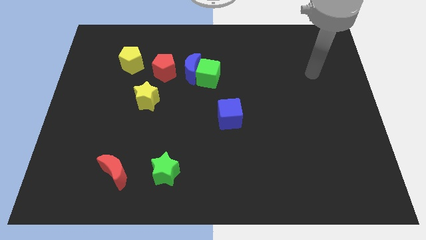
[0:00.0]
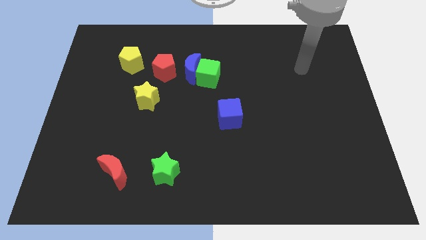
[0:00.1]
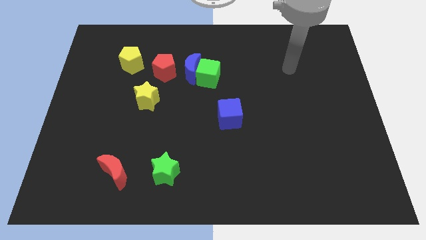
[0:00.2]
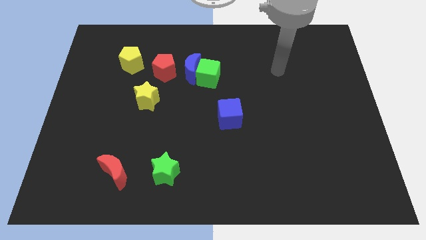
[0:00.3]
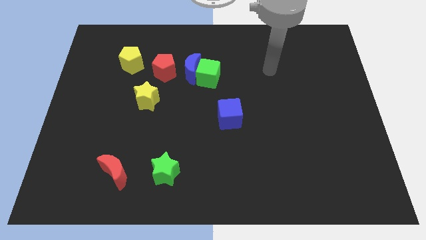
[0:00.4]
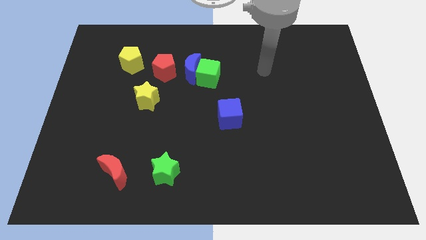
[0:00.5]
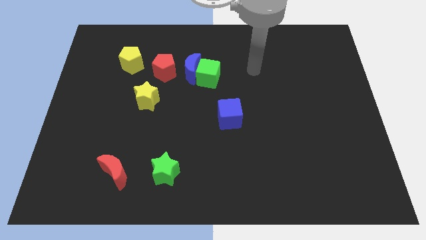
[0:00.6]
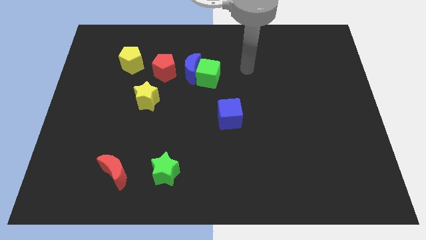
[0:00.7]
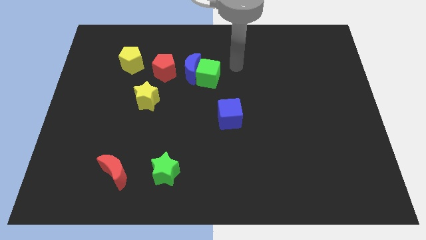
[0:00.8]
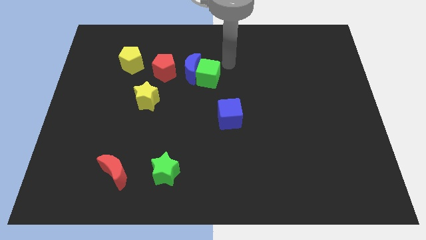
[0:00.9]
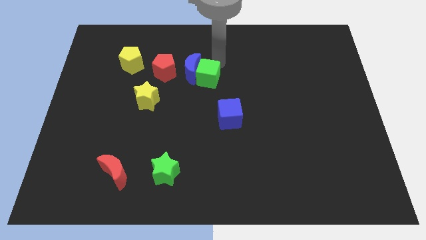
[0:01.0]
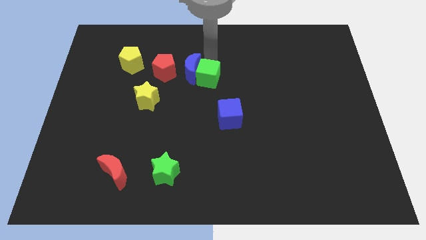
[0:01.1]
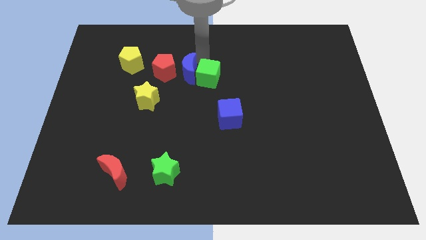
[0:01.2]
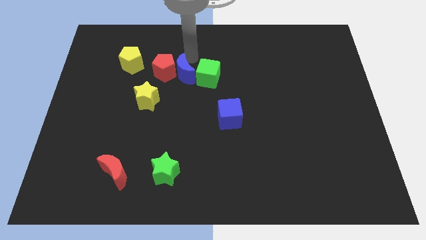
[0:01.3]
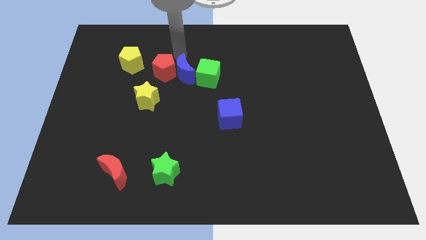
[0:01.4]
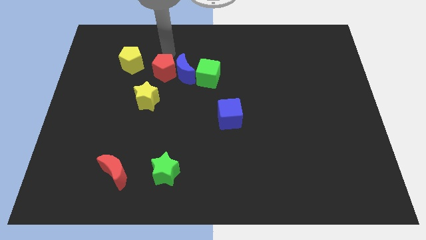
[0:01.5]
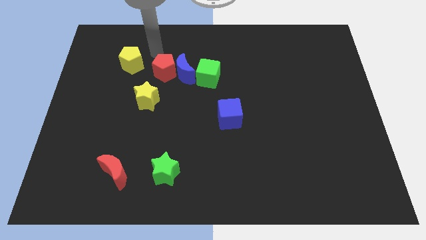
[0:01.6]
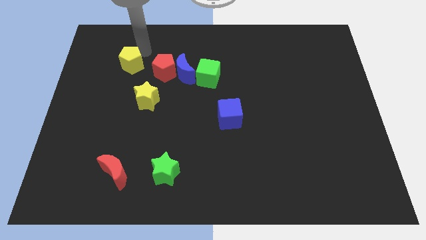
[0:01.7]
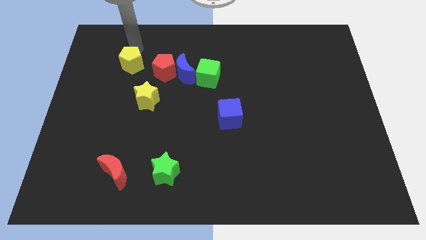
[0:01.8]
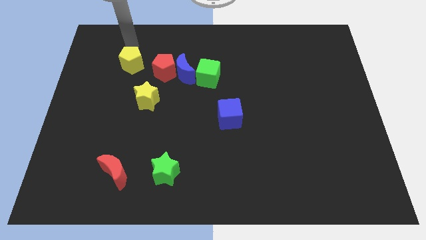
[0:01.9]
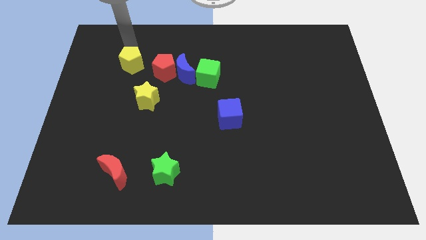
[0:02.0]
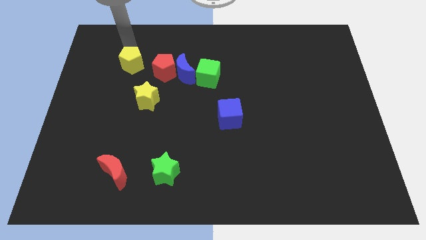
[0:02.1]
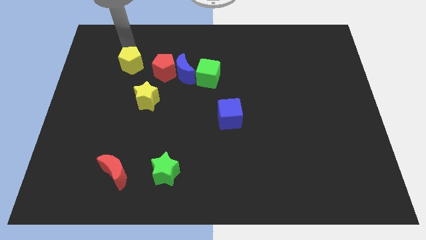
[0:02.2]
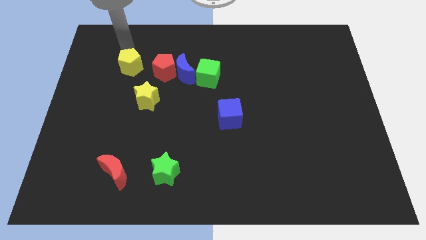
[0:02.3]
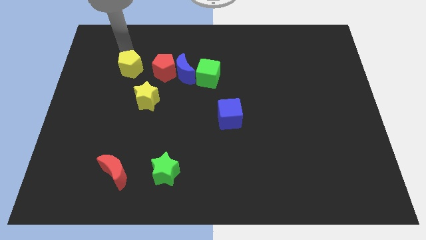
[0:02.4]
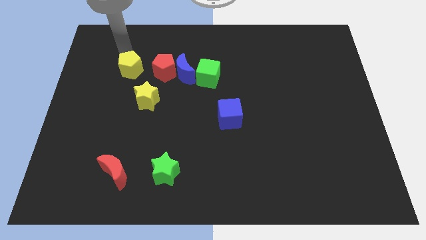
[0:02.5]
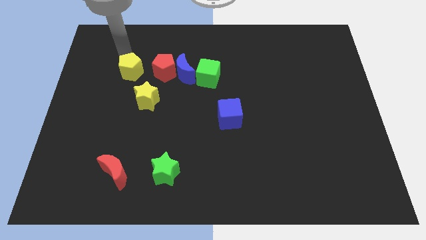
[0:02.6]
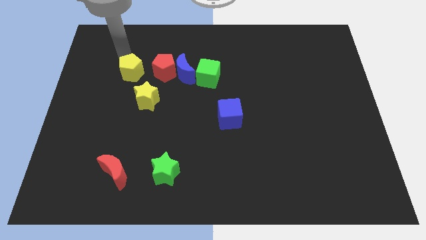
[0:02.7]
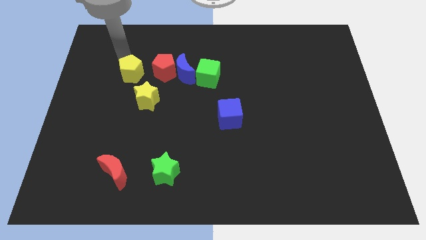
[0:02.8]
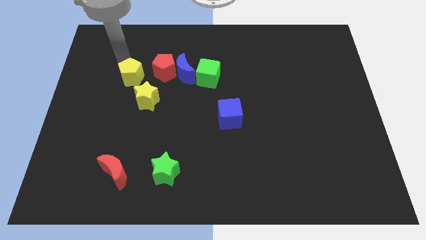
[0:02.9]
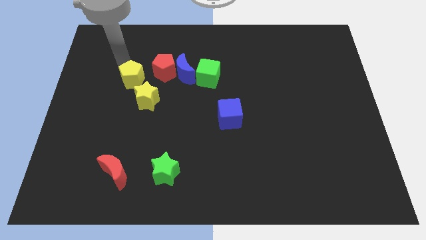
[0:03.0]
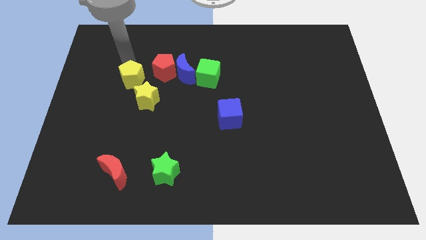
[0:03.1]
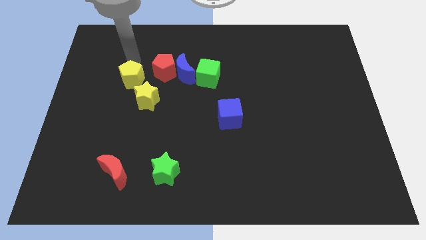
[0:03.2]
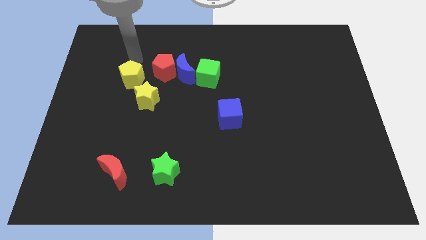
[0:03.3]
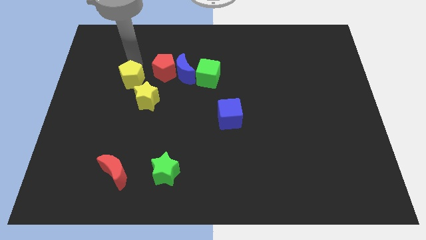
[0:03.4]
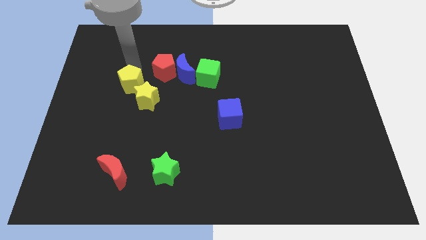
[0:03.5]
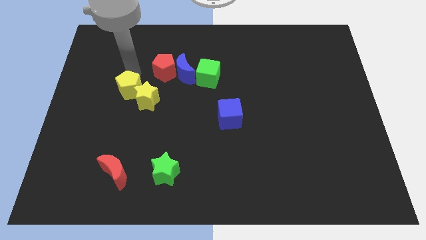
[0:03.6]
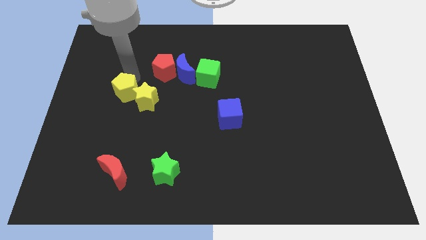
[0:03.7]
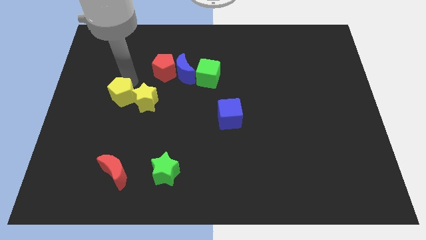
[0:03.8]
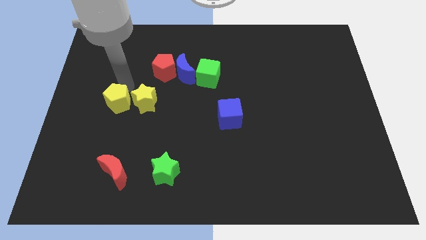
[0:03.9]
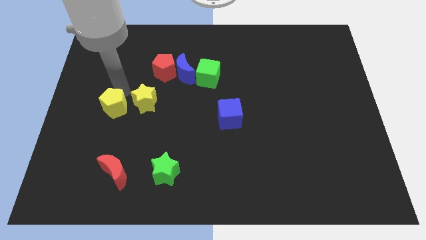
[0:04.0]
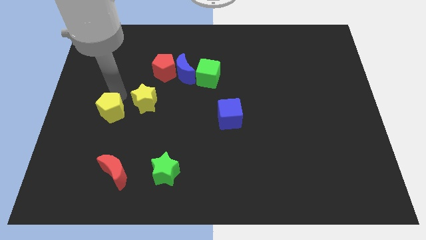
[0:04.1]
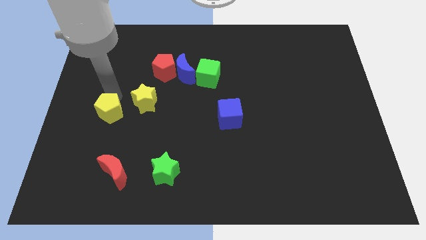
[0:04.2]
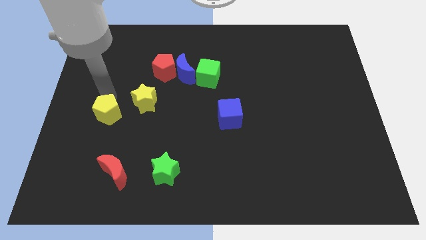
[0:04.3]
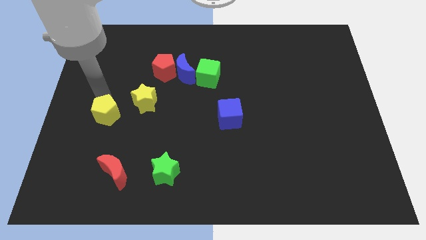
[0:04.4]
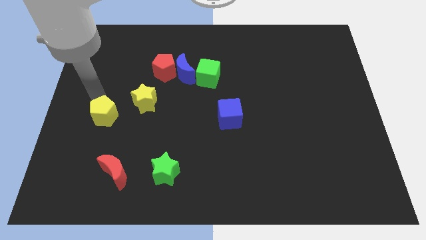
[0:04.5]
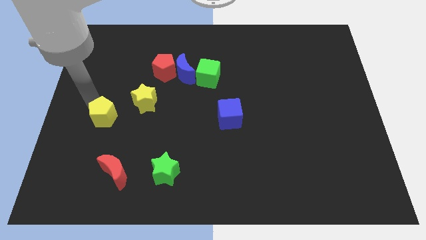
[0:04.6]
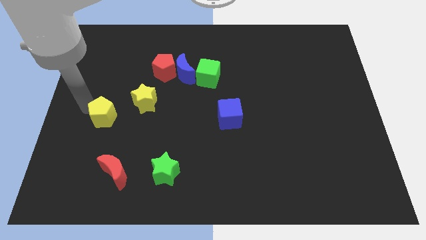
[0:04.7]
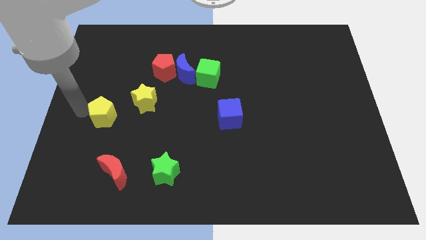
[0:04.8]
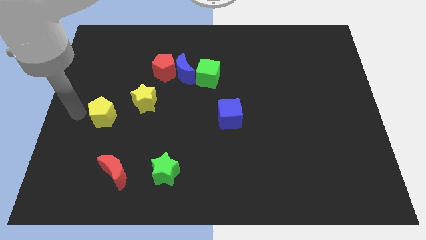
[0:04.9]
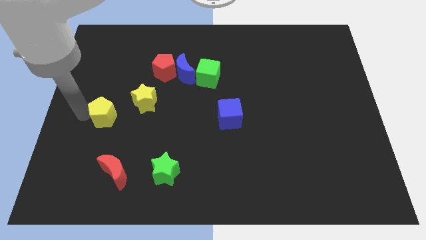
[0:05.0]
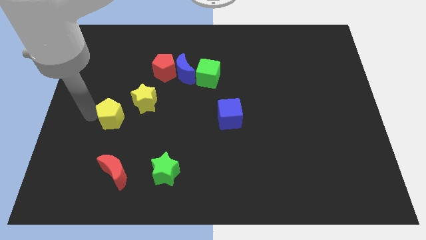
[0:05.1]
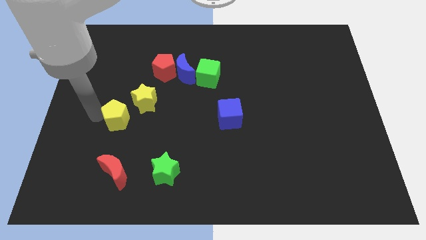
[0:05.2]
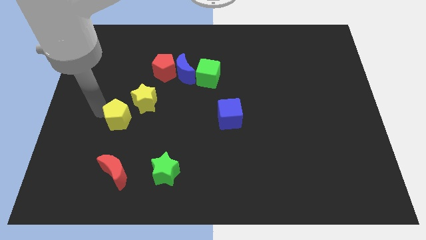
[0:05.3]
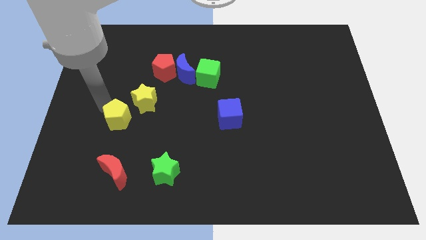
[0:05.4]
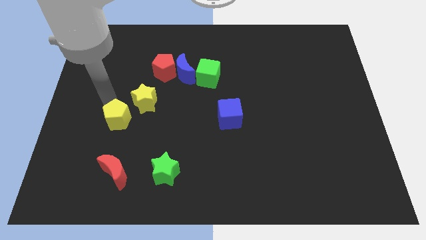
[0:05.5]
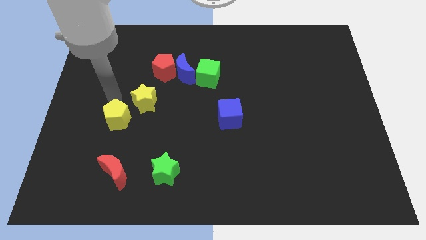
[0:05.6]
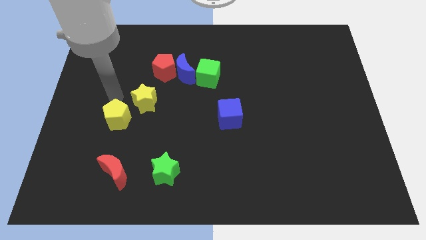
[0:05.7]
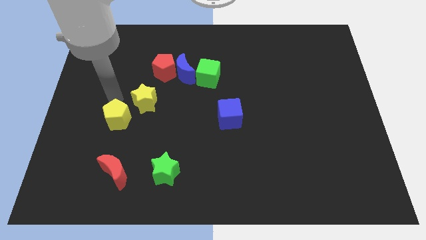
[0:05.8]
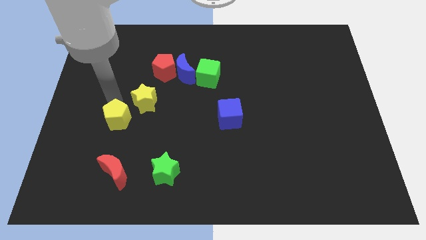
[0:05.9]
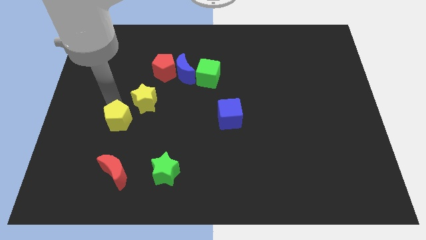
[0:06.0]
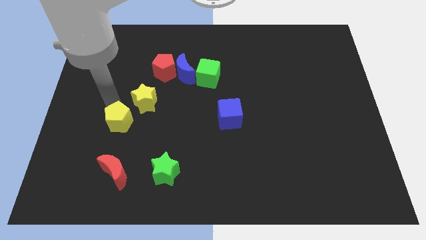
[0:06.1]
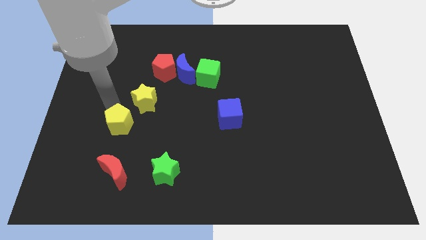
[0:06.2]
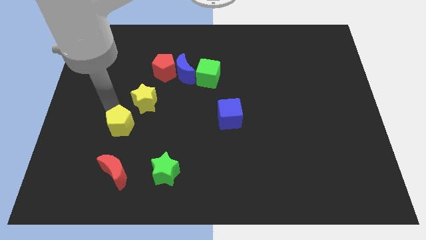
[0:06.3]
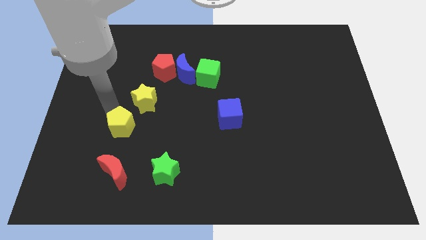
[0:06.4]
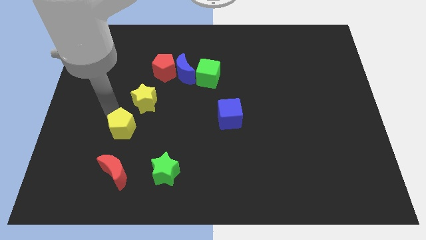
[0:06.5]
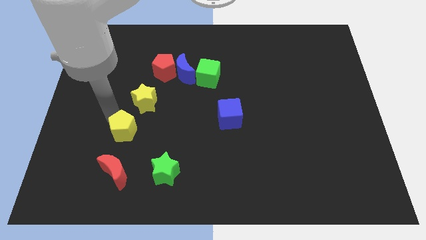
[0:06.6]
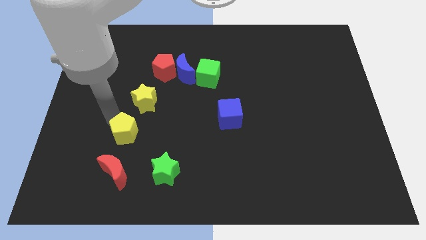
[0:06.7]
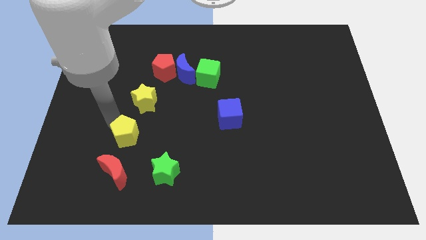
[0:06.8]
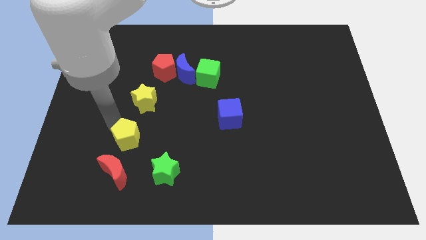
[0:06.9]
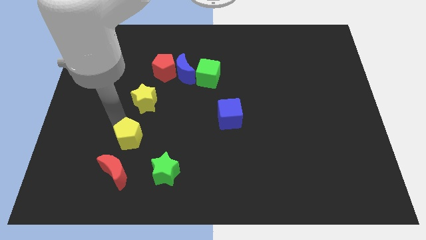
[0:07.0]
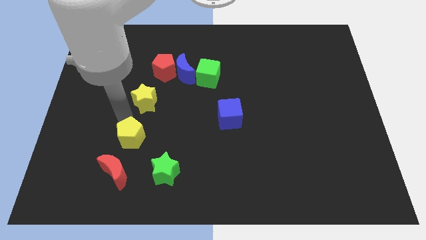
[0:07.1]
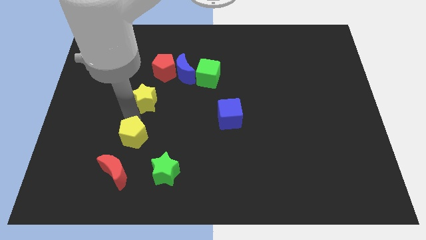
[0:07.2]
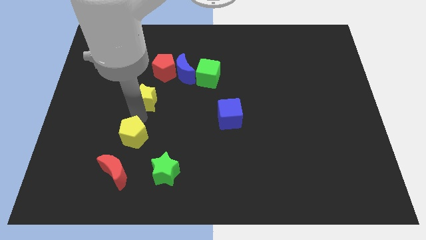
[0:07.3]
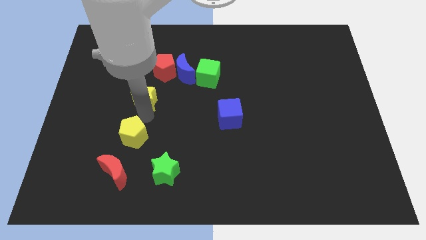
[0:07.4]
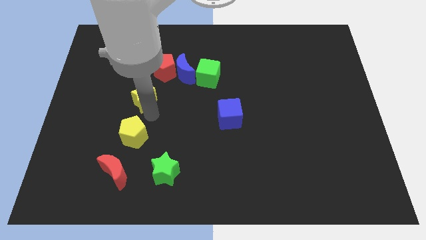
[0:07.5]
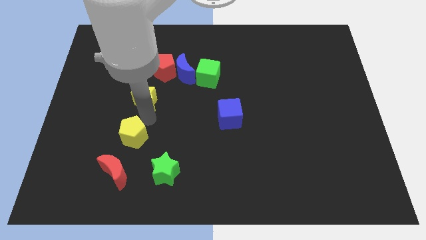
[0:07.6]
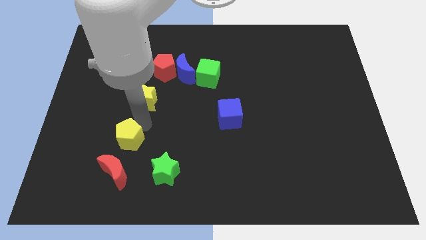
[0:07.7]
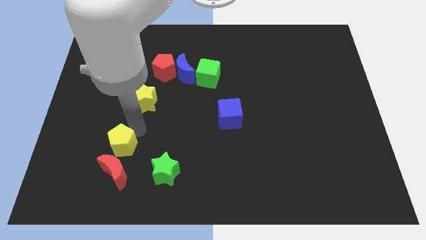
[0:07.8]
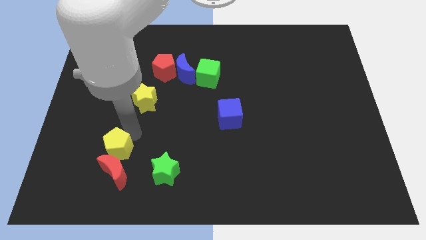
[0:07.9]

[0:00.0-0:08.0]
slide the yellow pentagon towards the red moon

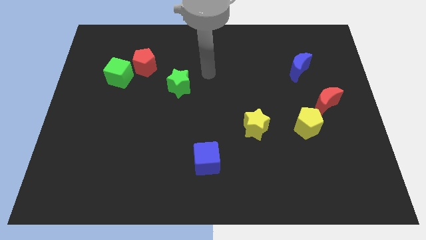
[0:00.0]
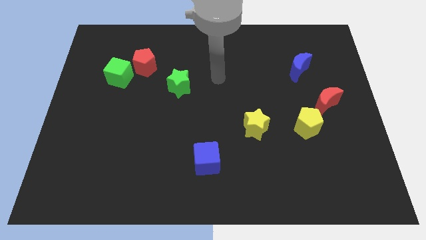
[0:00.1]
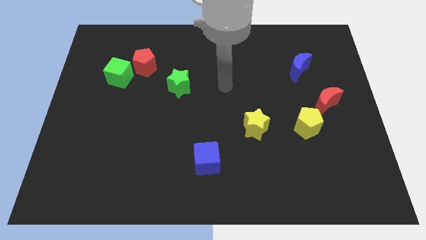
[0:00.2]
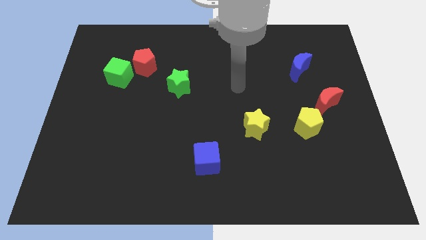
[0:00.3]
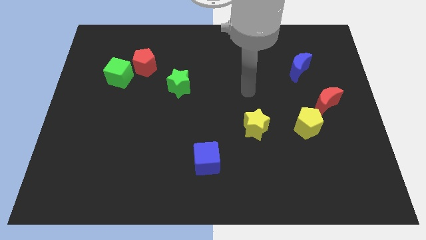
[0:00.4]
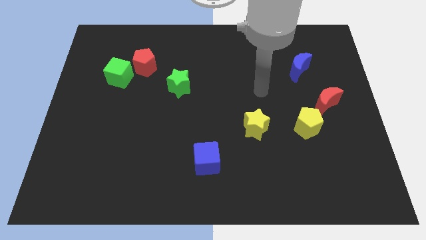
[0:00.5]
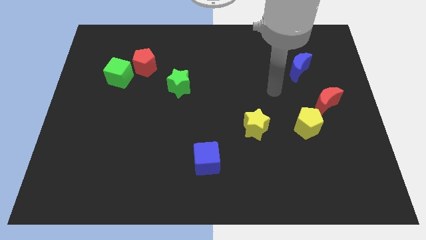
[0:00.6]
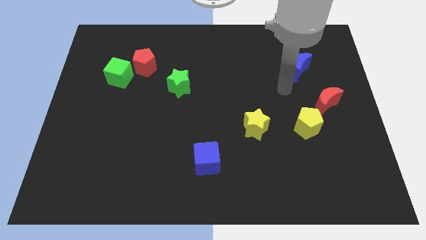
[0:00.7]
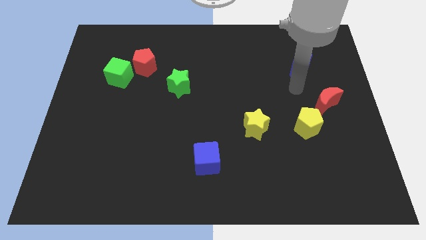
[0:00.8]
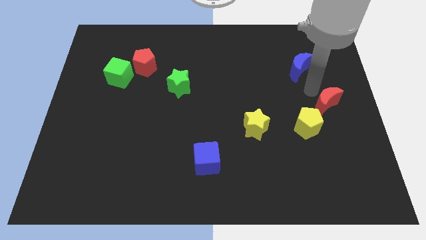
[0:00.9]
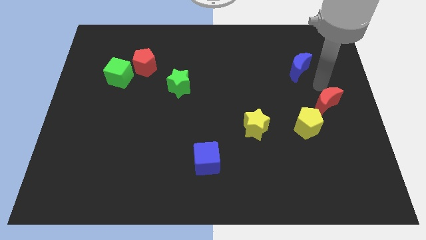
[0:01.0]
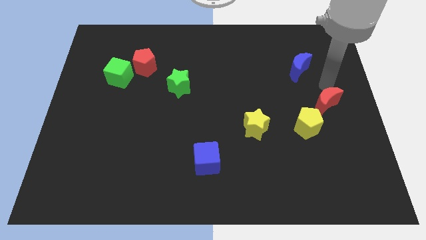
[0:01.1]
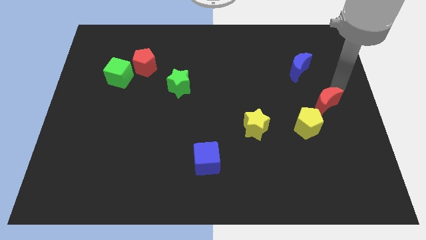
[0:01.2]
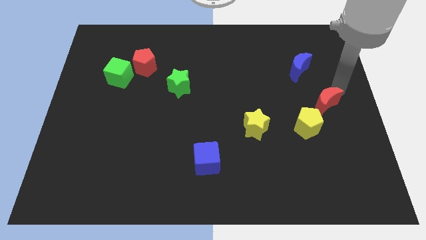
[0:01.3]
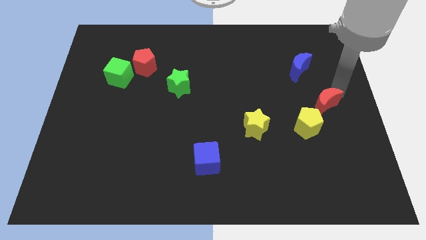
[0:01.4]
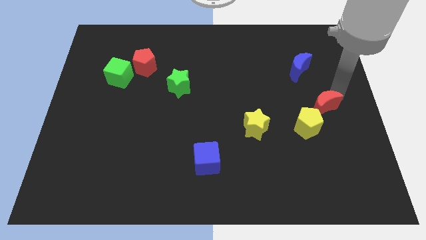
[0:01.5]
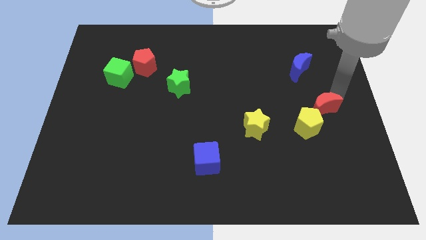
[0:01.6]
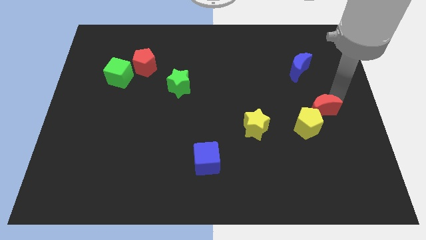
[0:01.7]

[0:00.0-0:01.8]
move the red moon next to the yellow pentagon
